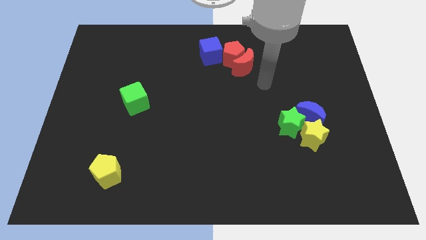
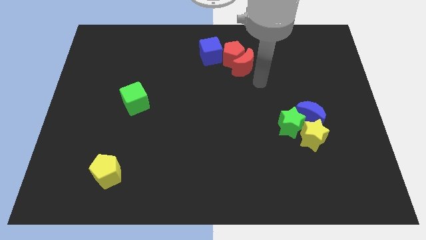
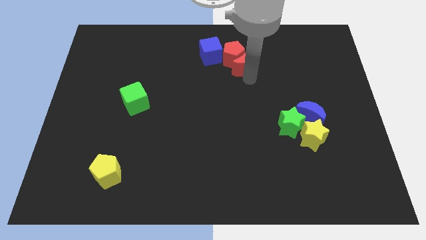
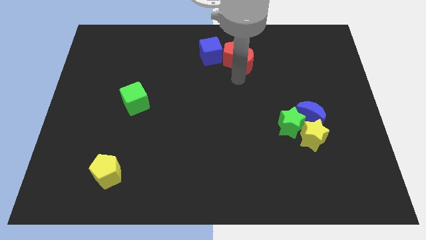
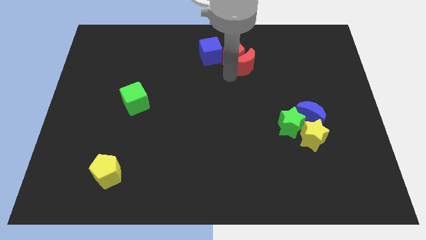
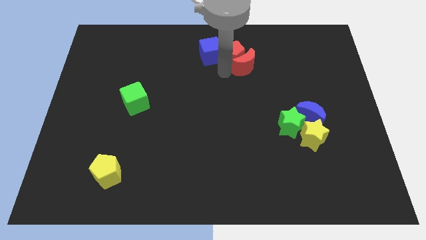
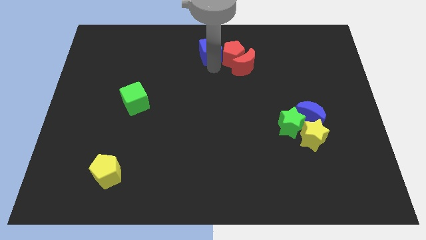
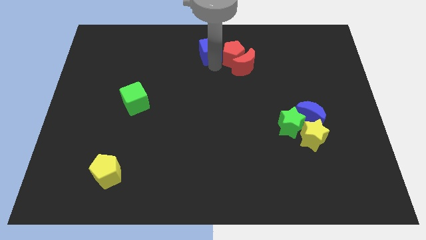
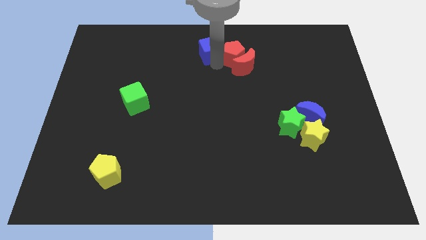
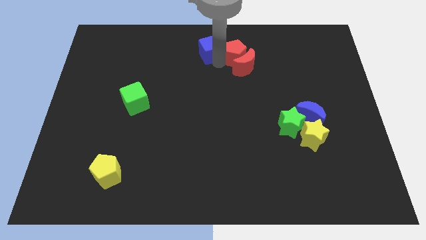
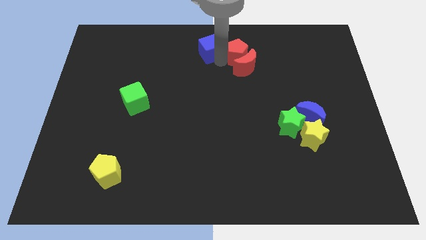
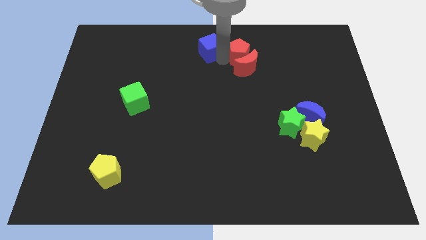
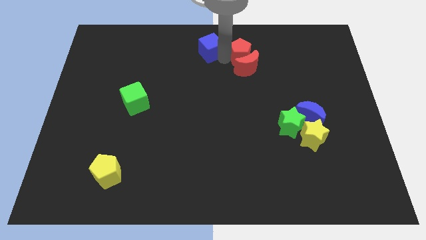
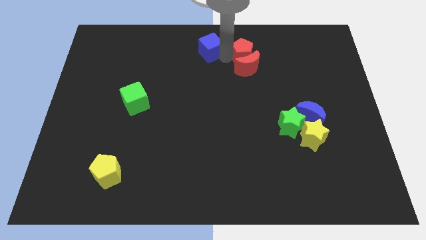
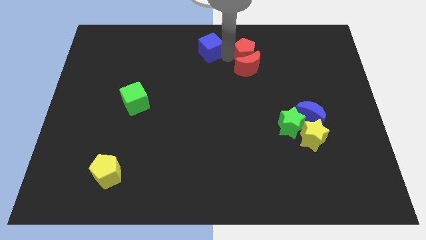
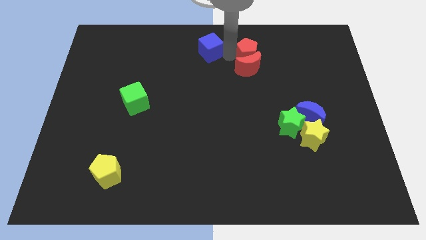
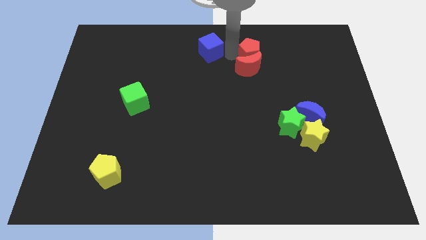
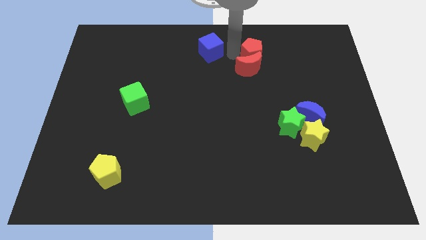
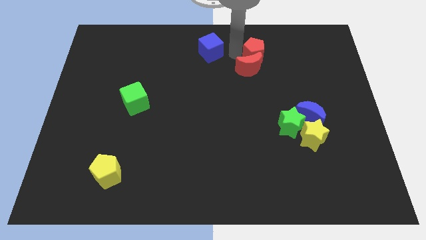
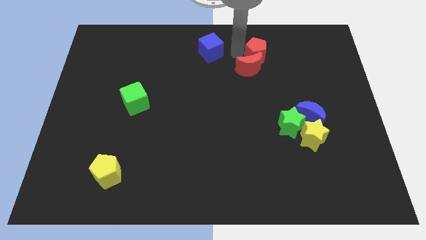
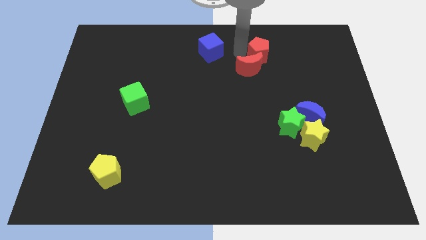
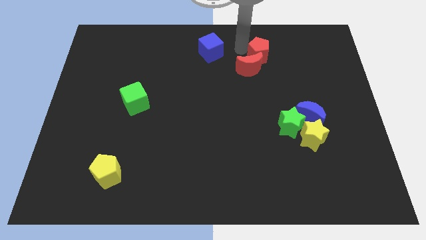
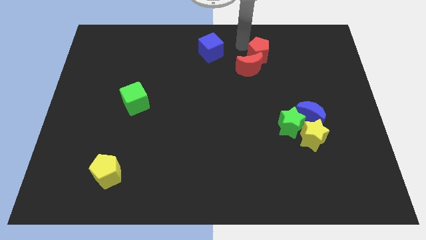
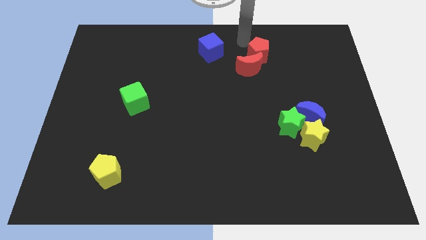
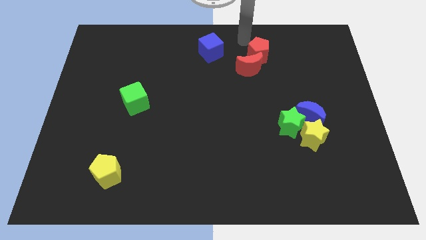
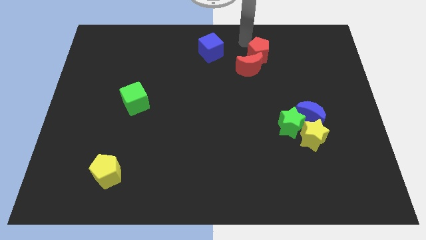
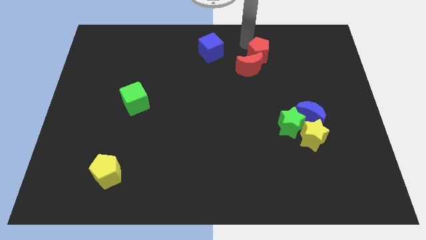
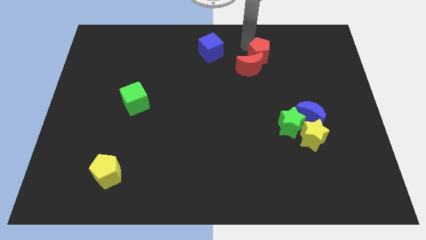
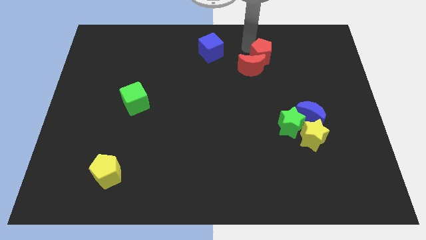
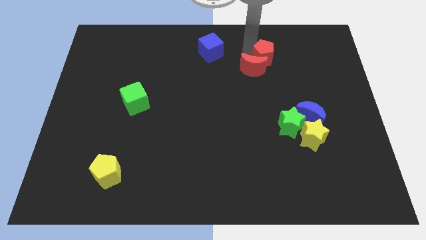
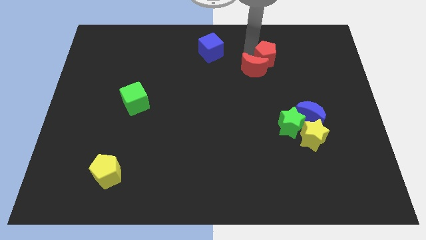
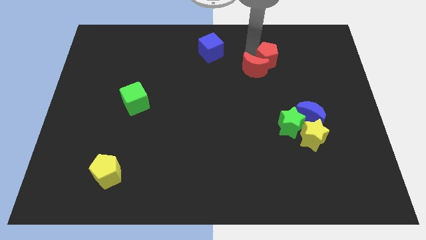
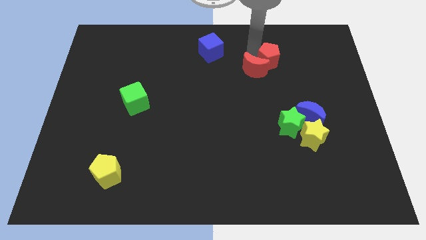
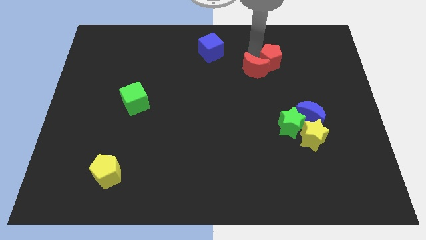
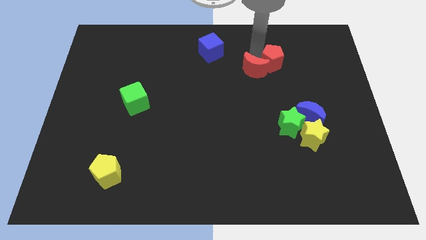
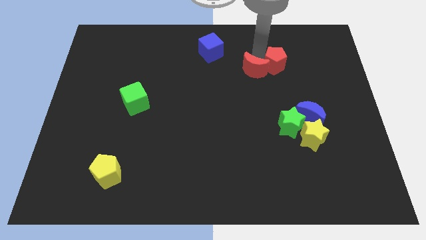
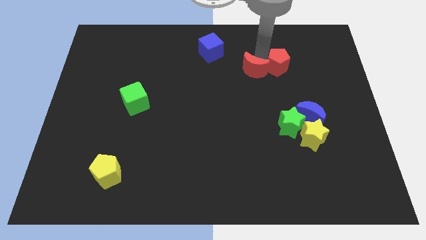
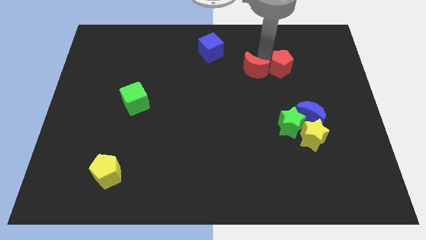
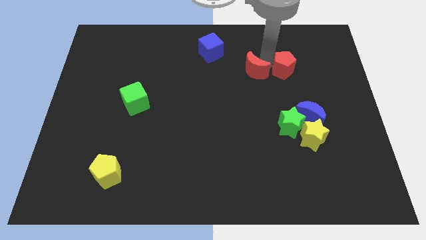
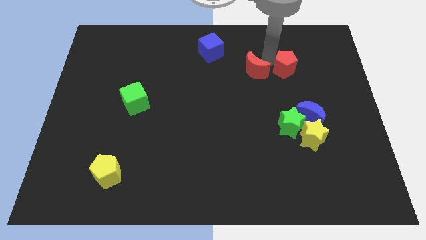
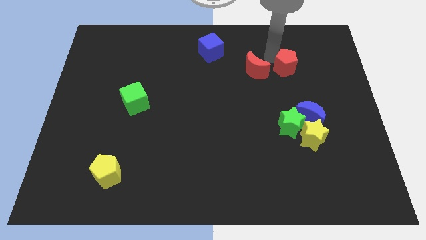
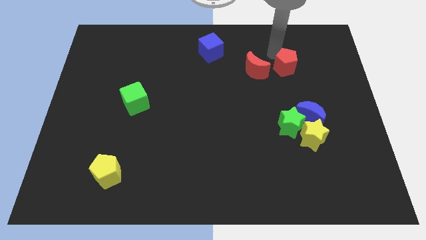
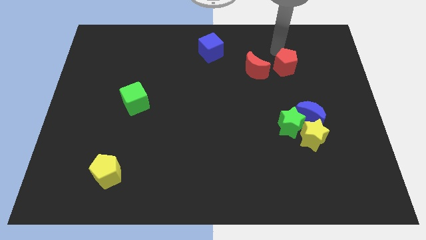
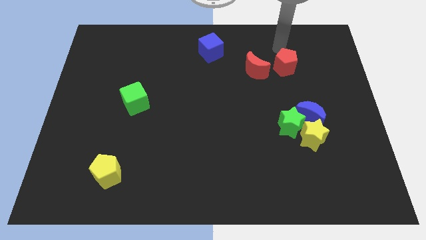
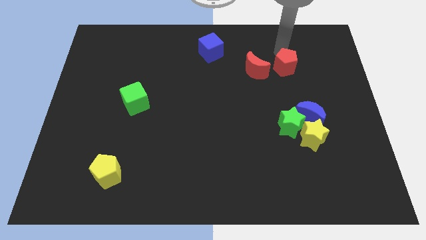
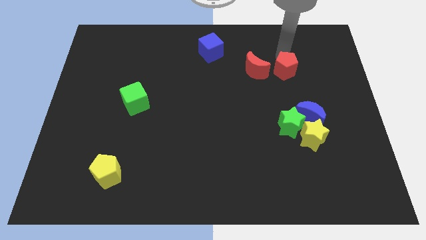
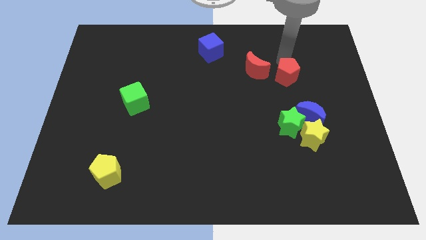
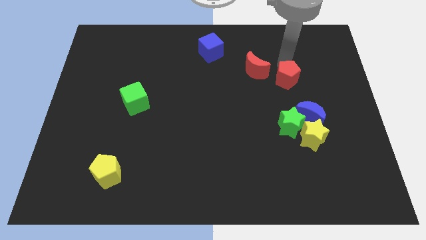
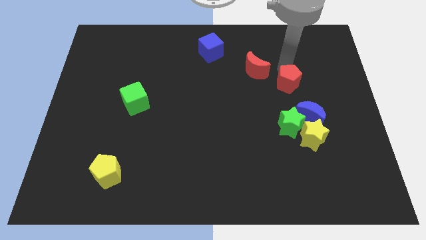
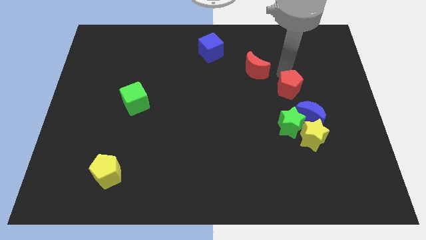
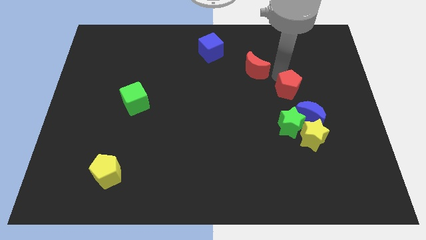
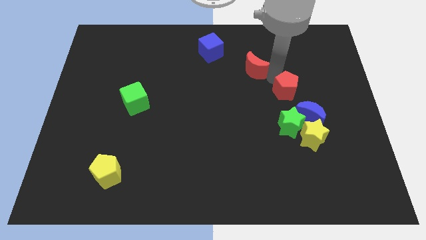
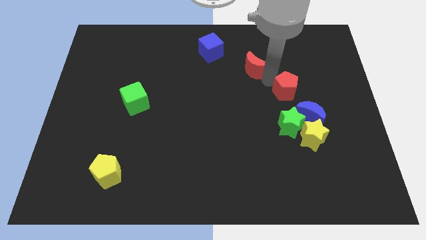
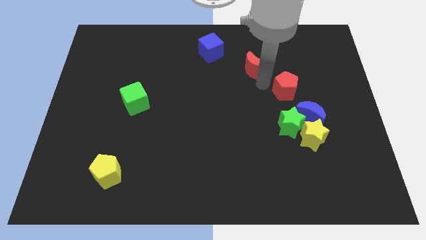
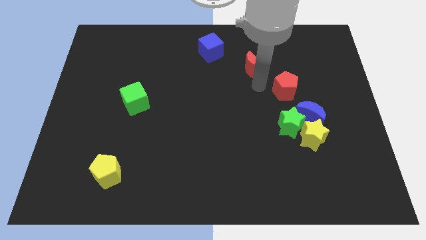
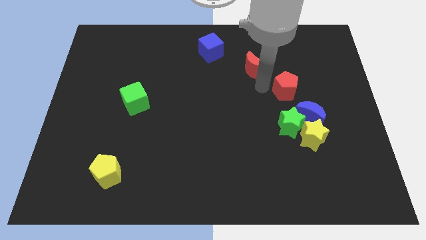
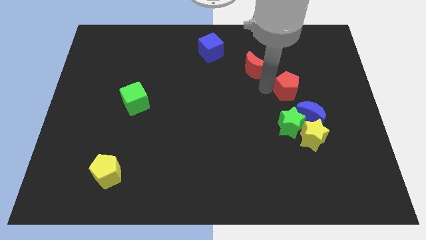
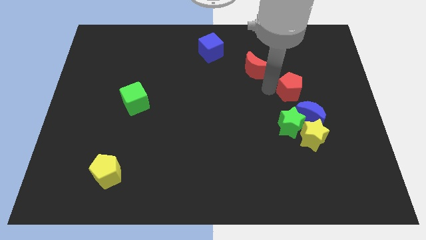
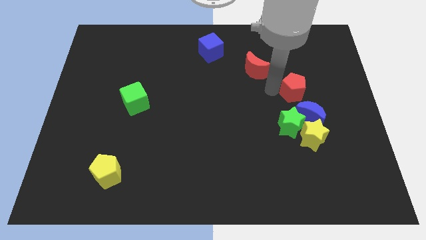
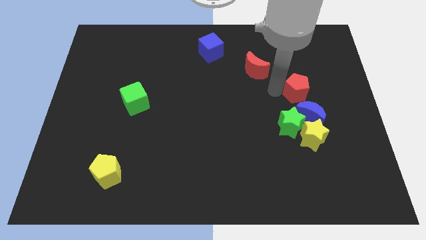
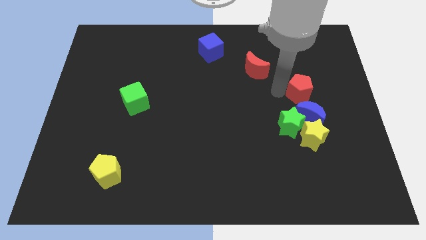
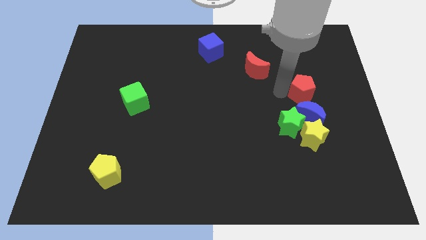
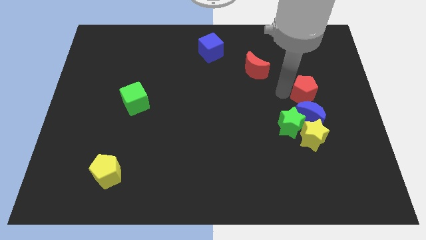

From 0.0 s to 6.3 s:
move the red pentagon diagonally down and right

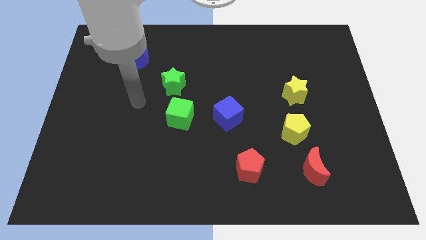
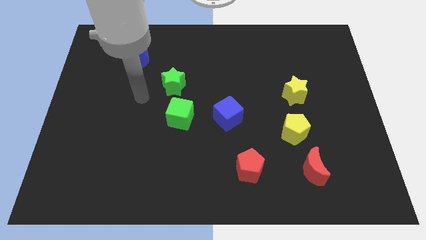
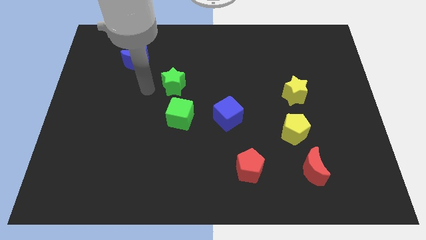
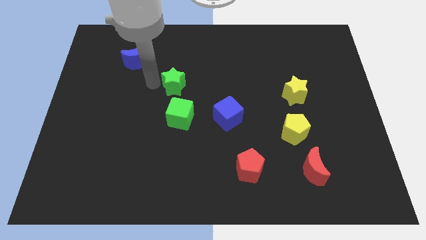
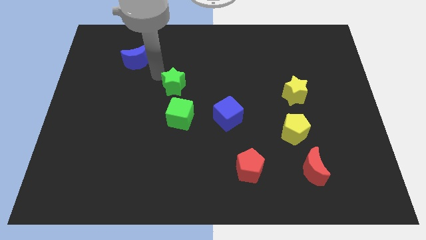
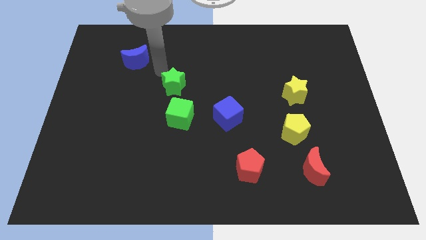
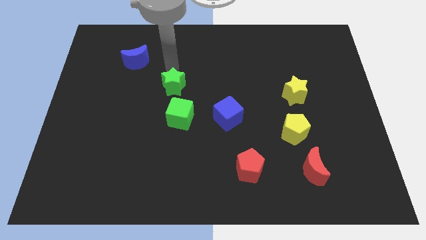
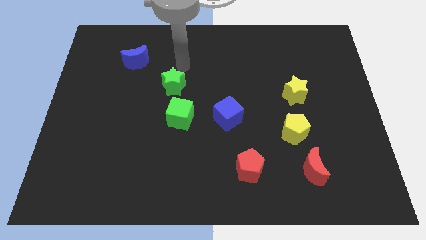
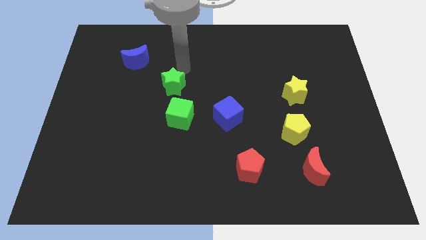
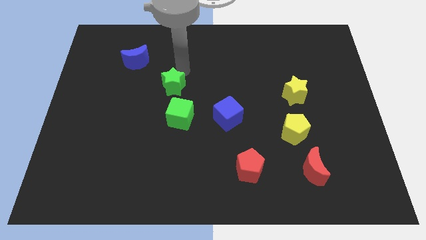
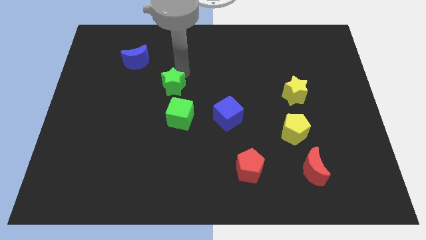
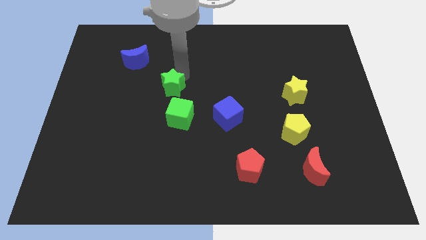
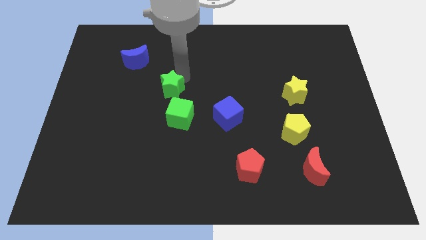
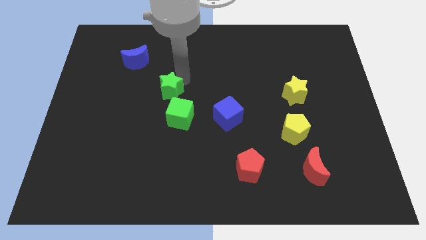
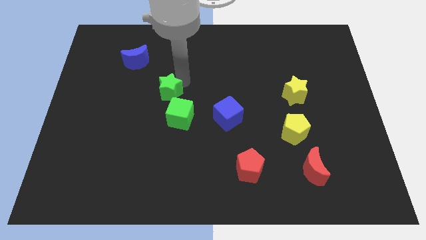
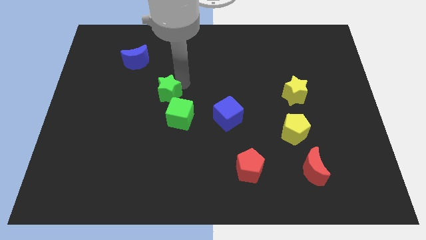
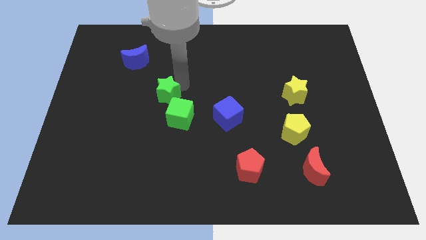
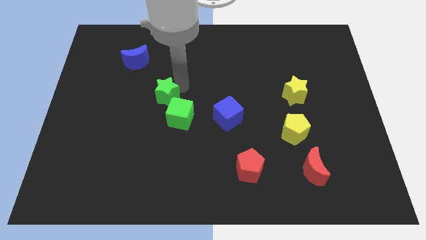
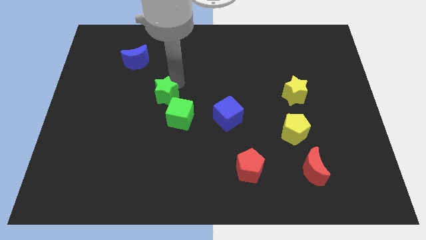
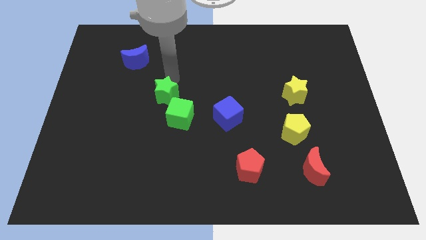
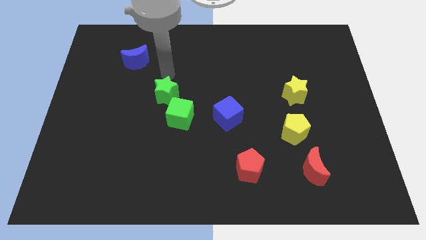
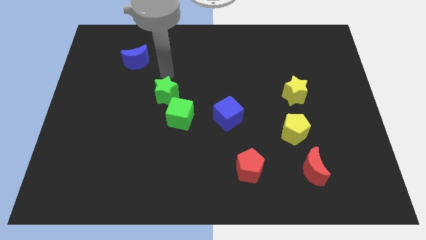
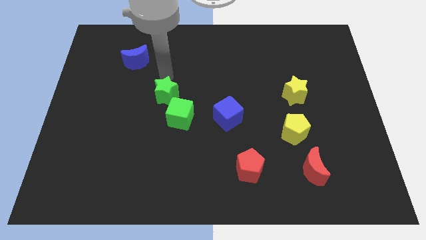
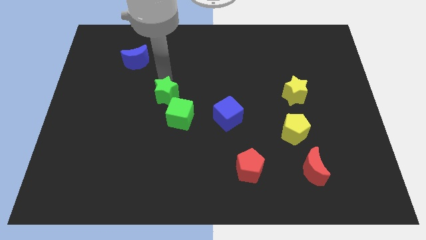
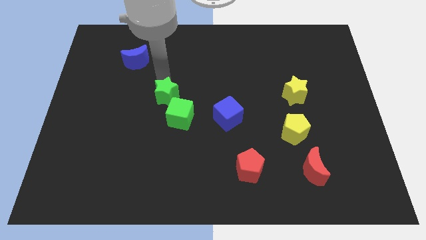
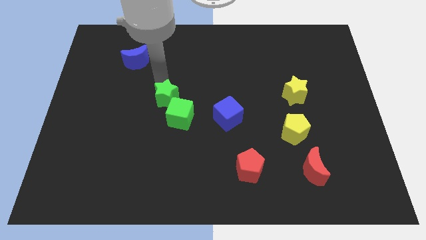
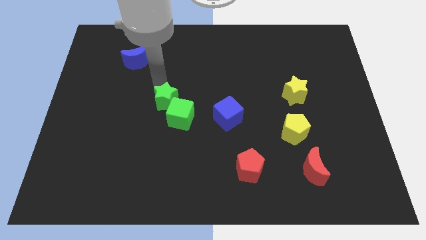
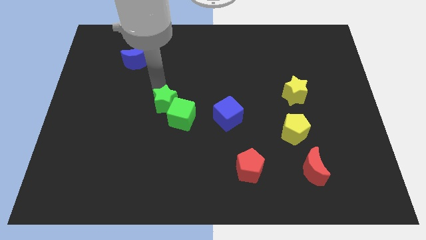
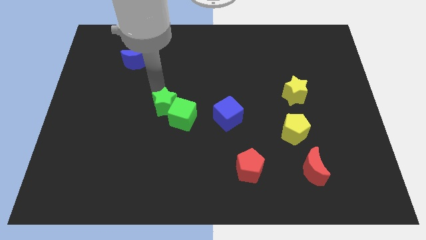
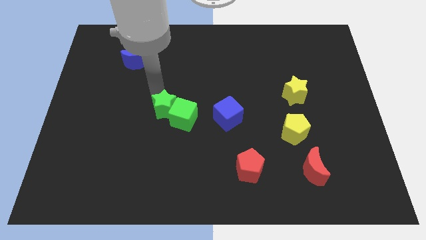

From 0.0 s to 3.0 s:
slightly push the green star downwards
